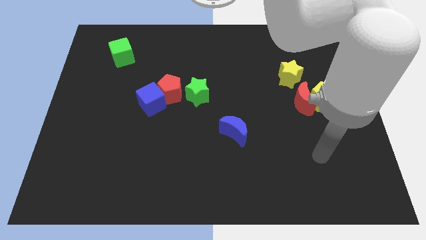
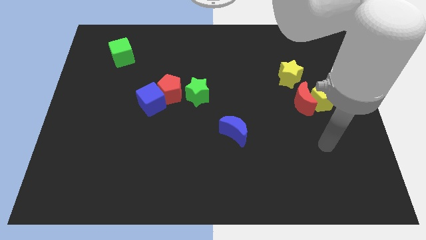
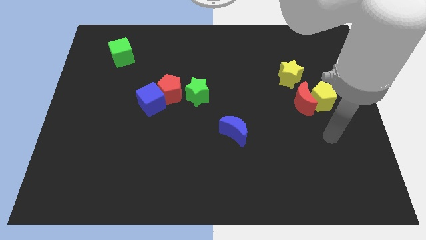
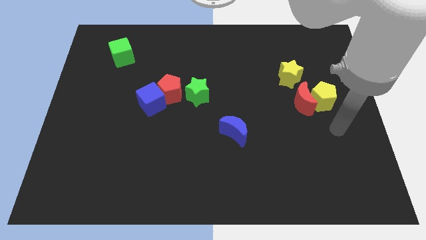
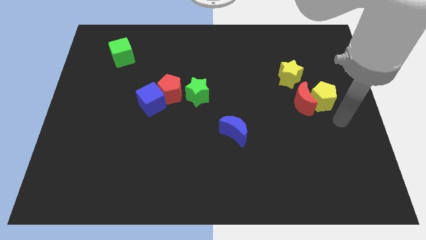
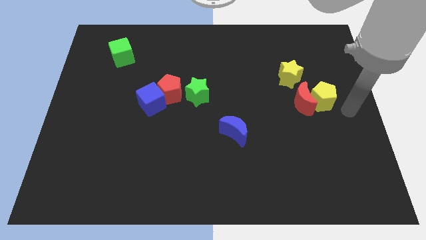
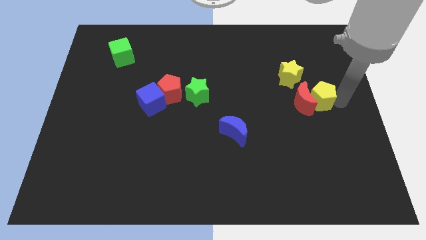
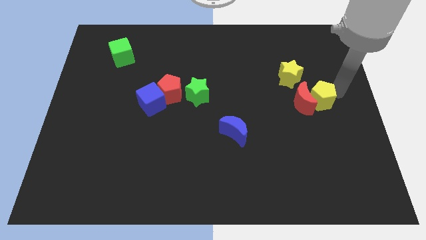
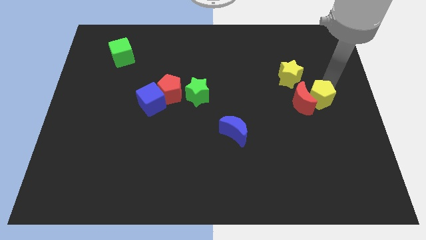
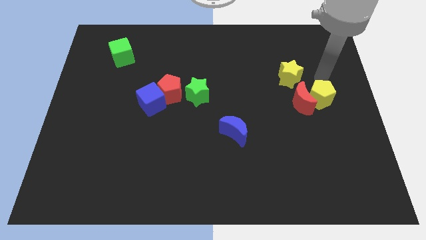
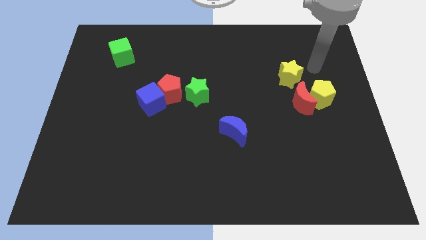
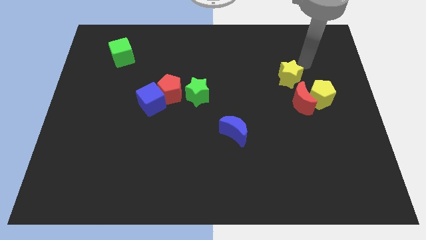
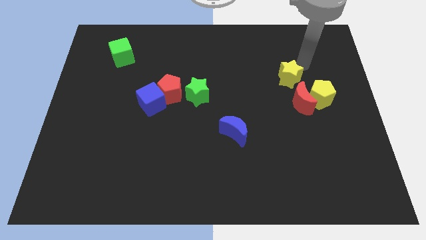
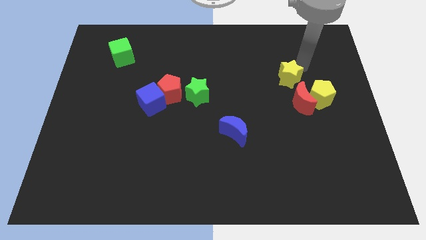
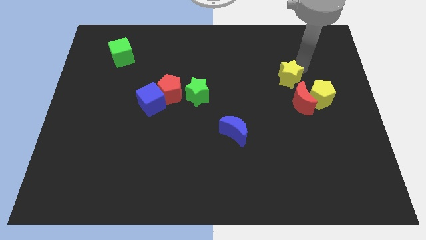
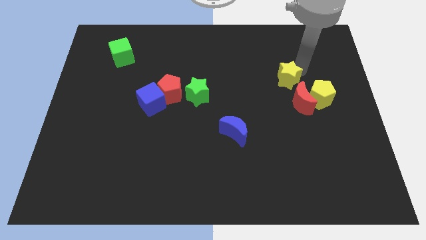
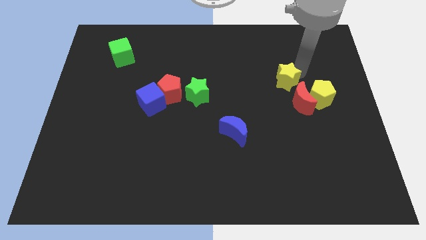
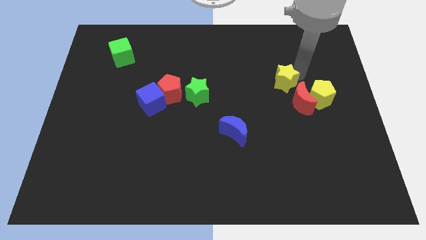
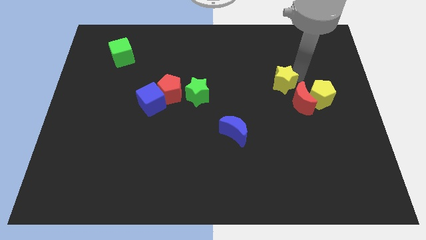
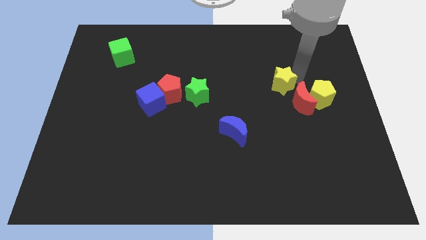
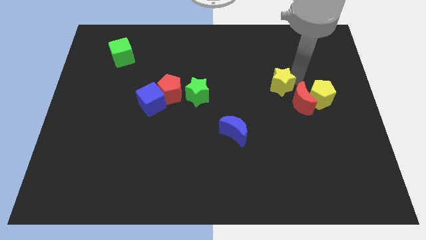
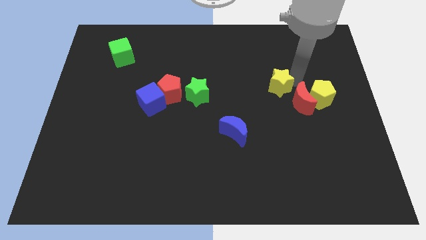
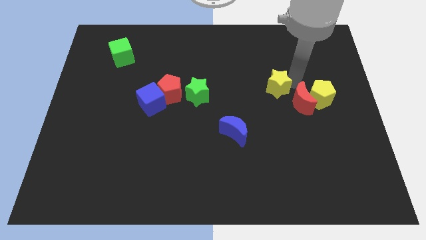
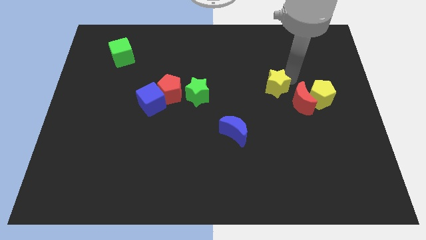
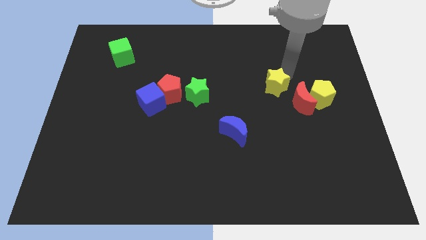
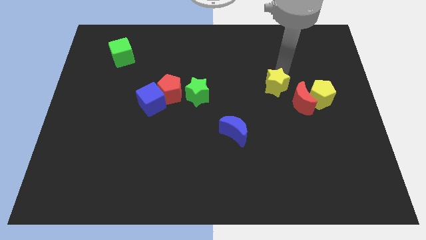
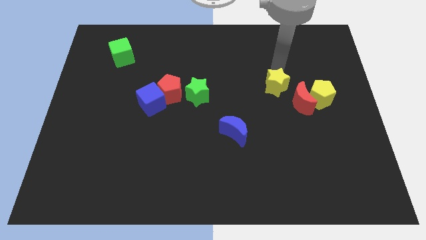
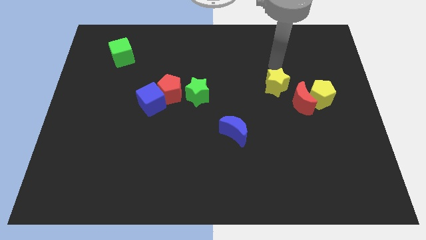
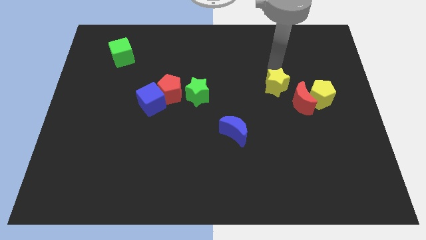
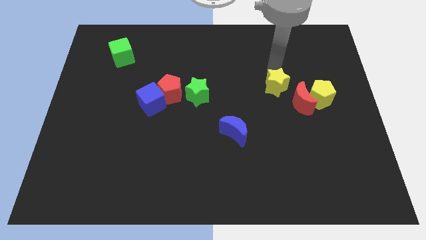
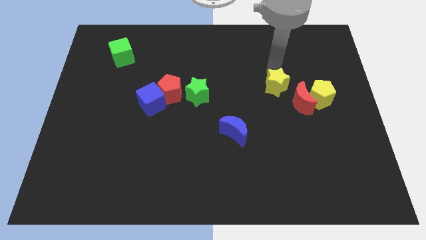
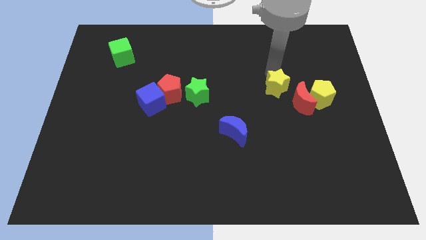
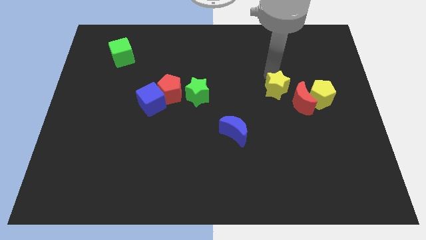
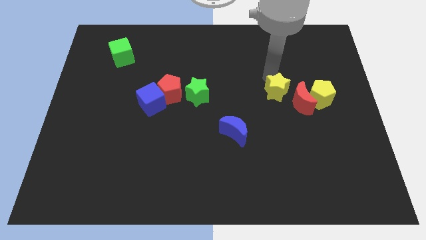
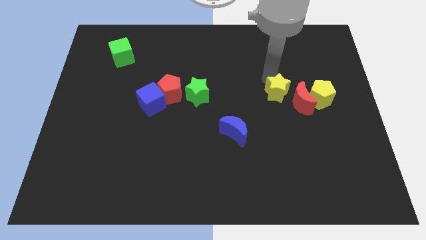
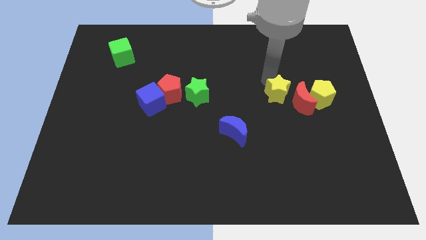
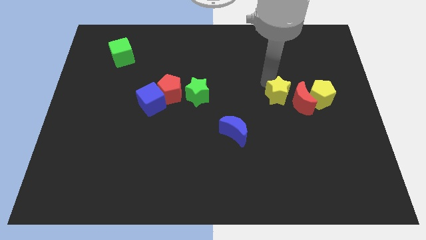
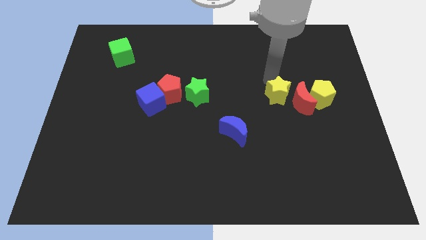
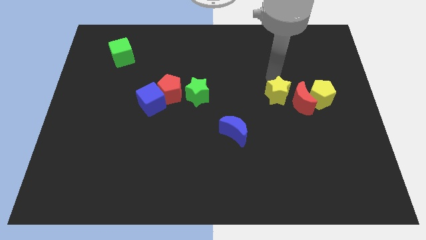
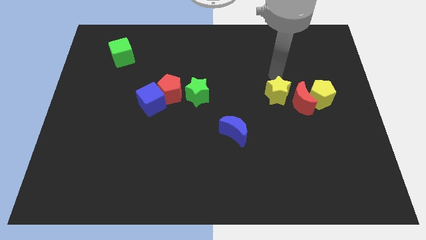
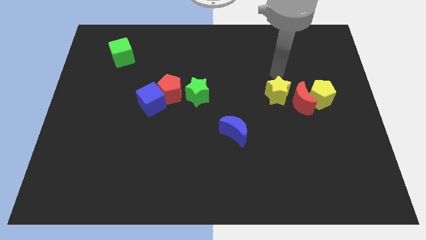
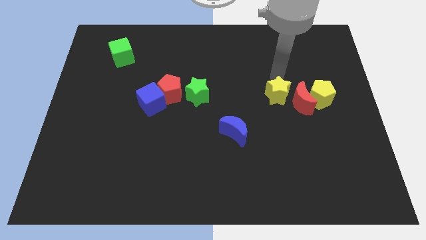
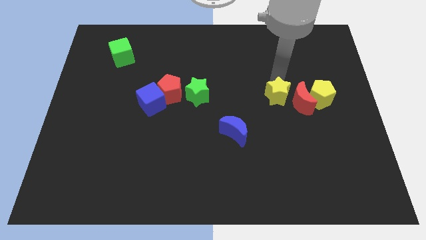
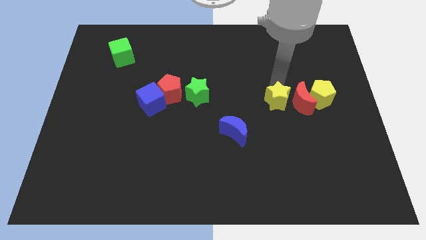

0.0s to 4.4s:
slightly slide the yellow star down

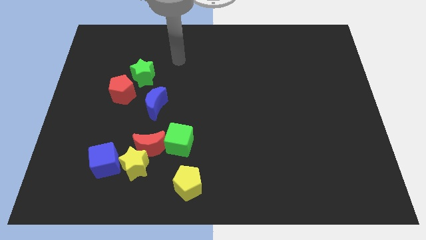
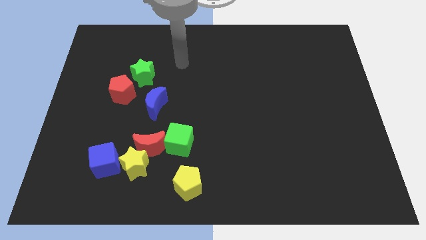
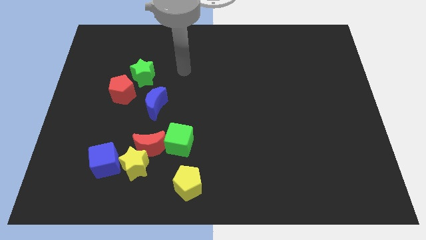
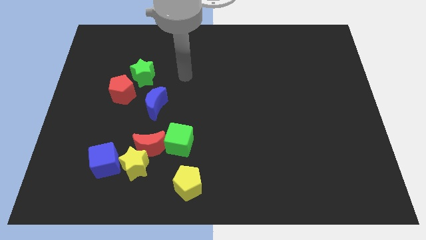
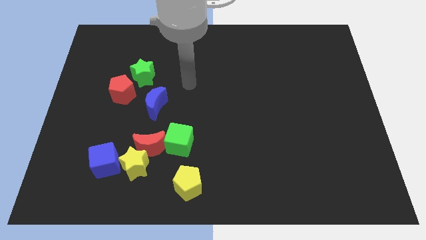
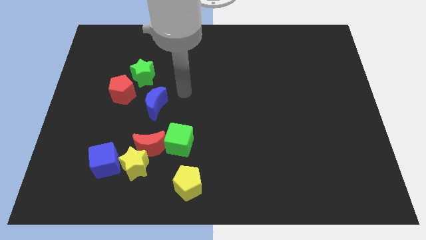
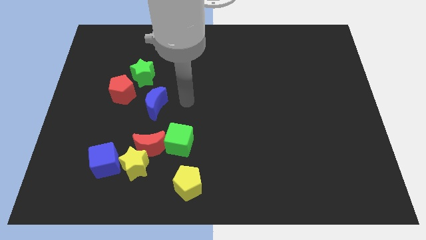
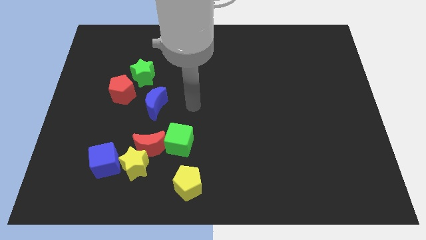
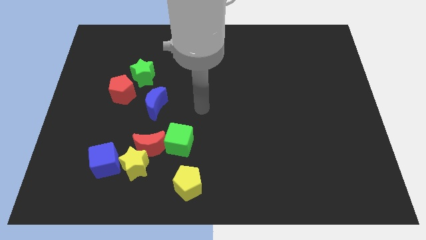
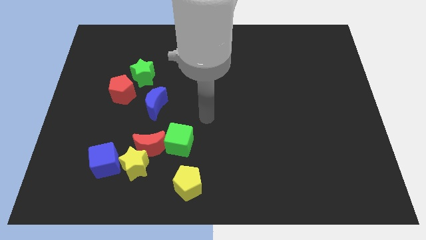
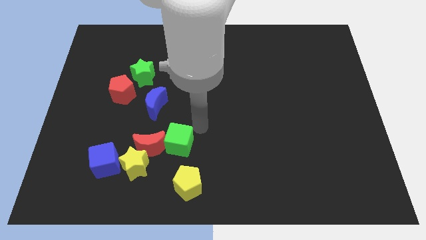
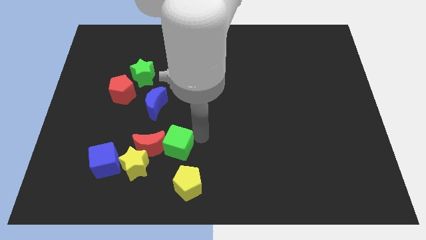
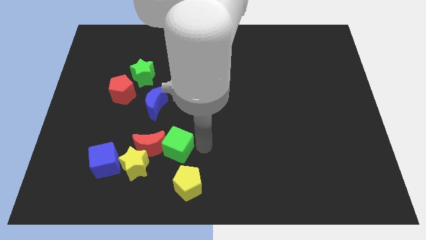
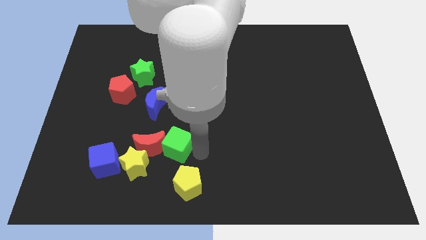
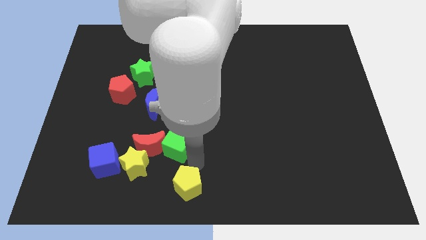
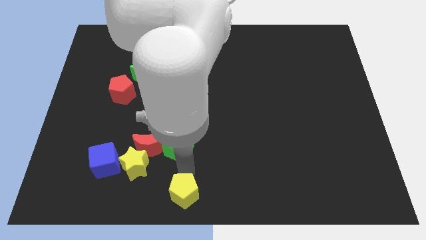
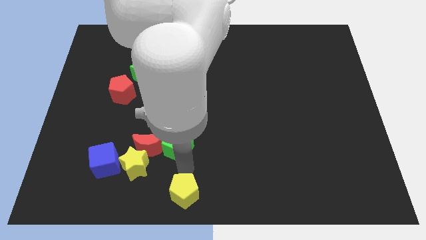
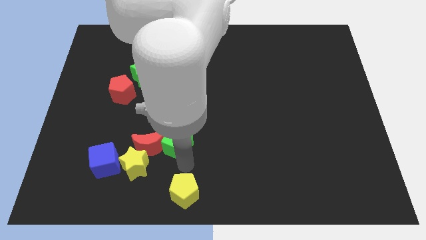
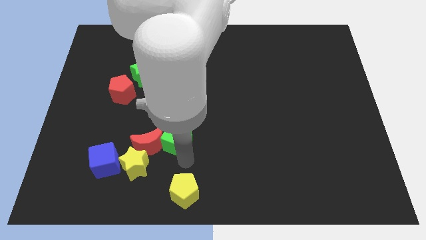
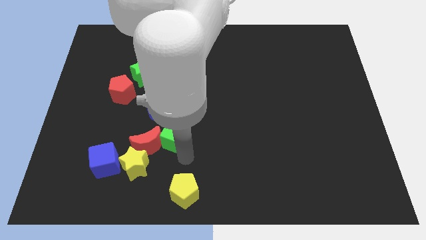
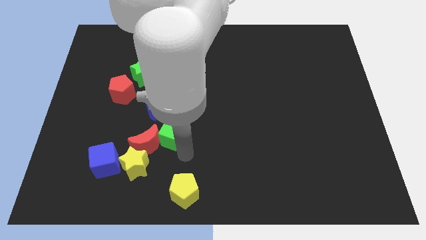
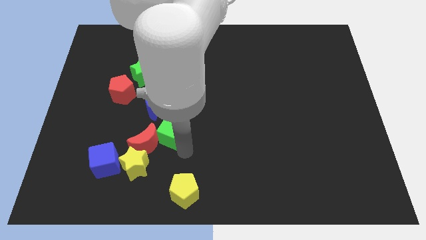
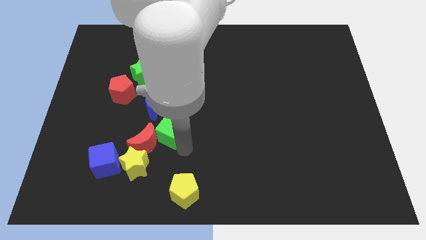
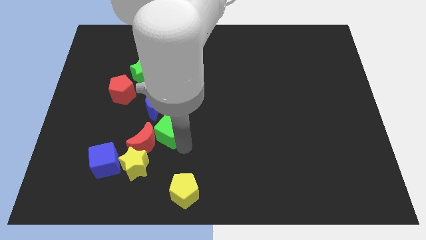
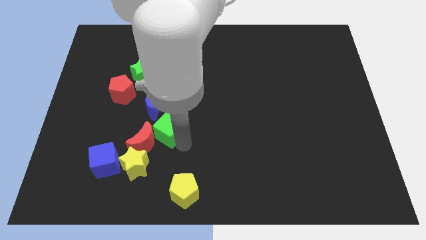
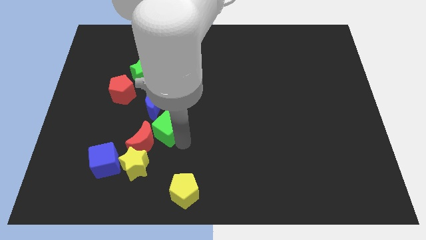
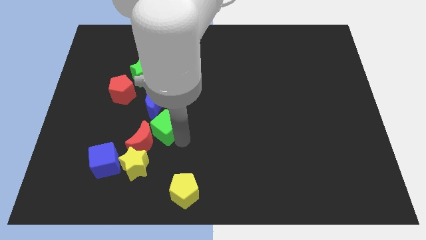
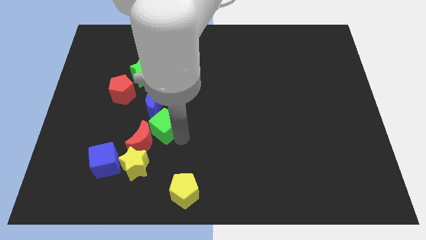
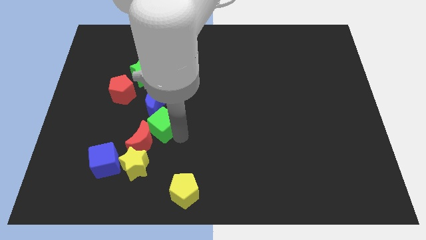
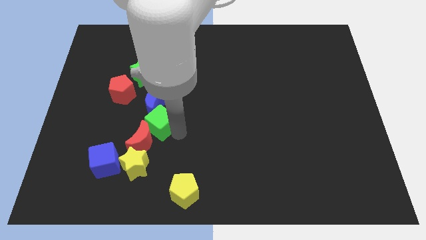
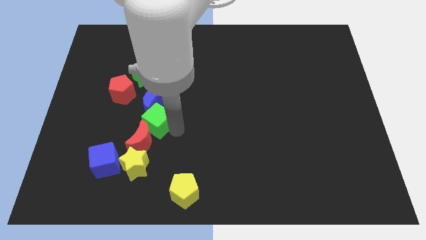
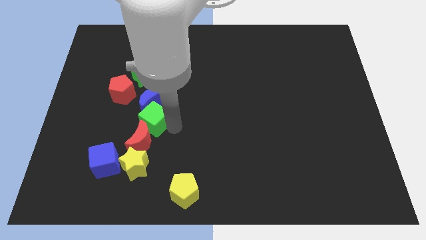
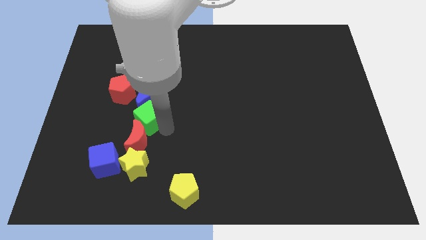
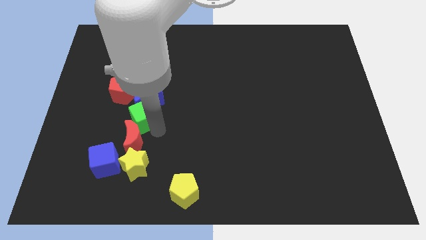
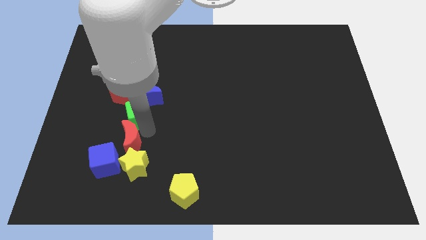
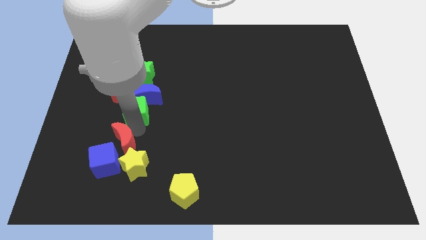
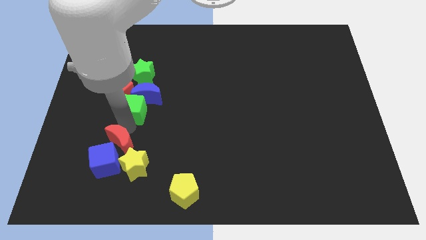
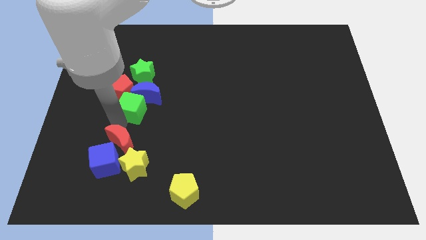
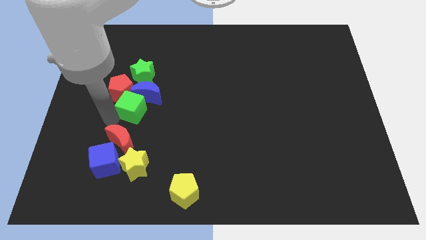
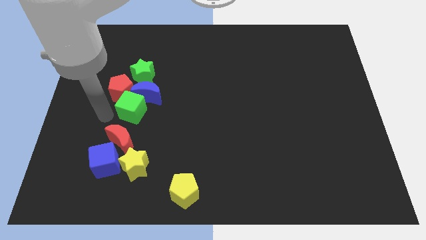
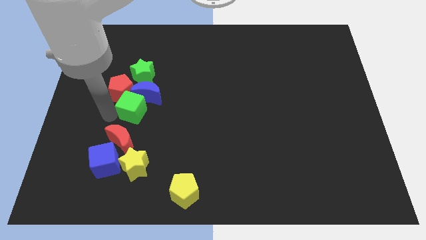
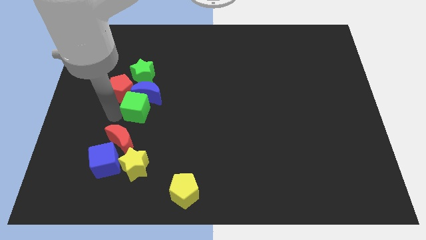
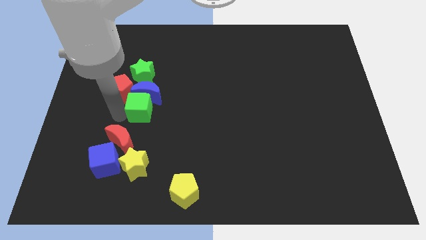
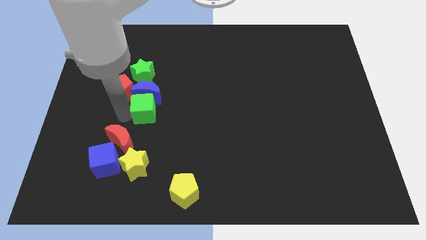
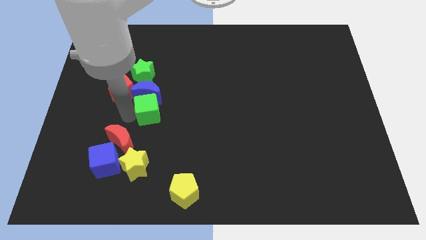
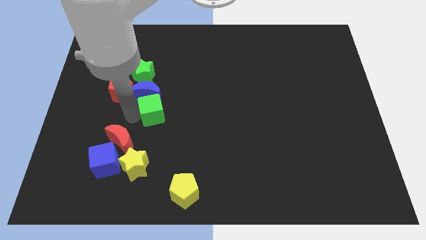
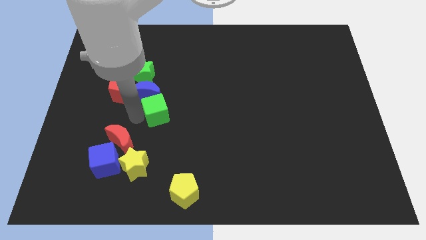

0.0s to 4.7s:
slightly slide the green cube up
